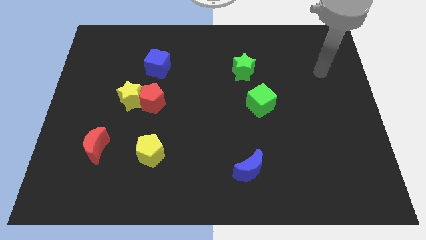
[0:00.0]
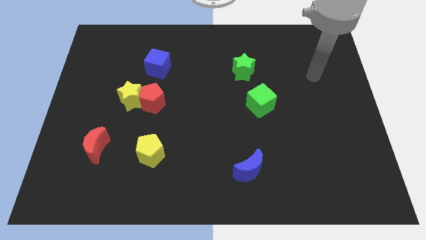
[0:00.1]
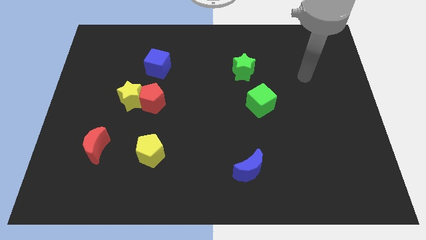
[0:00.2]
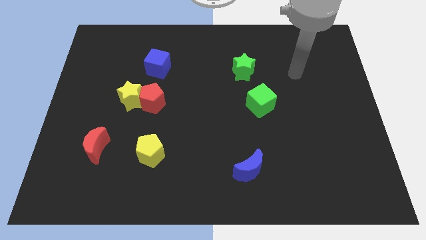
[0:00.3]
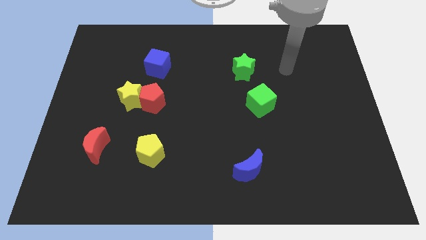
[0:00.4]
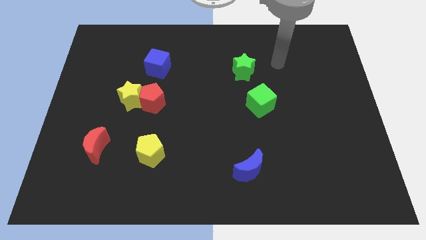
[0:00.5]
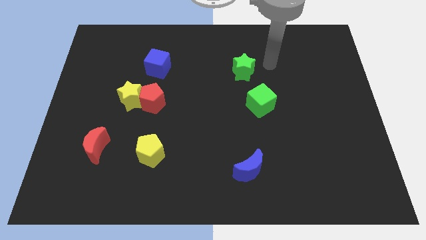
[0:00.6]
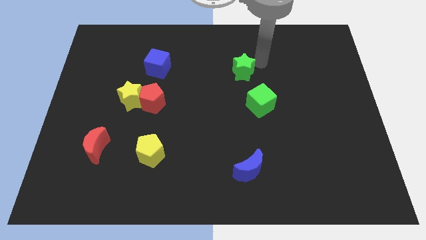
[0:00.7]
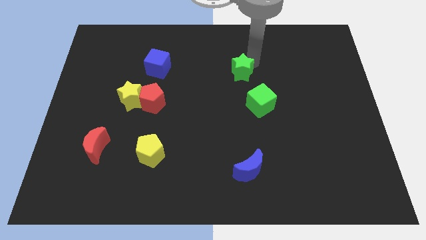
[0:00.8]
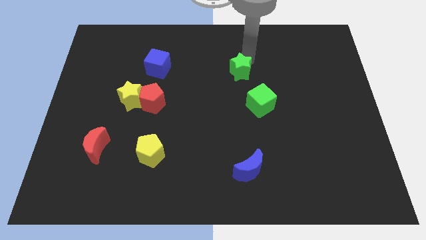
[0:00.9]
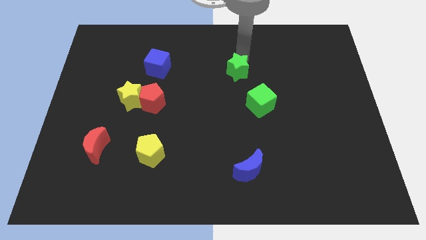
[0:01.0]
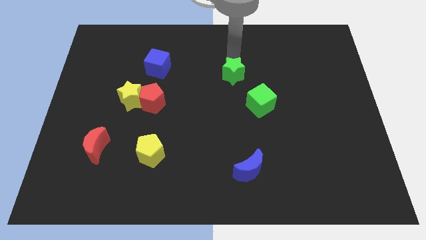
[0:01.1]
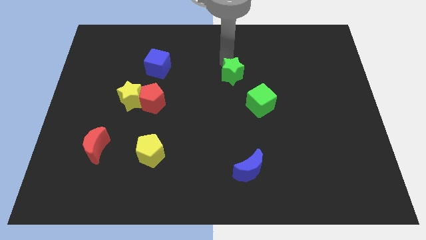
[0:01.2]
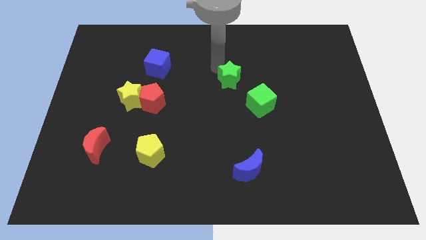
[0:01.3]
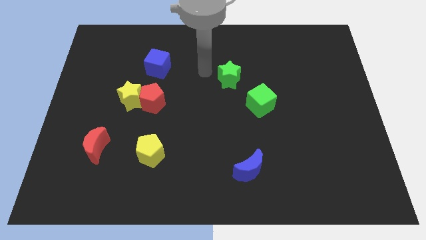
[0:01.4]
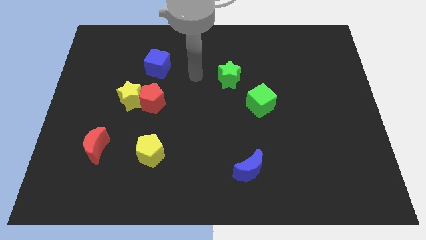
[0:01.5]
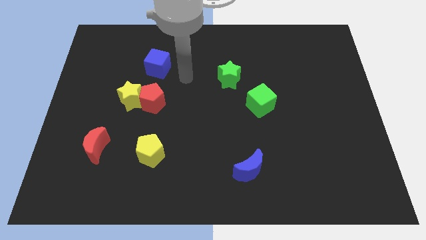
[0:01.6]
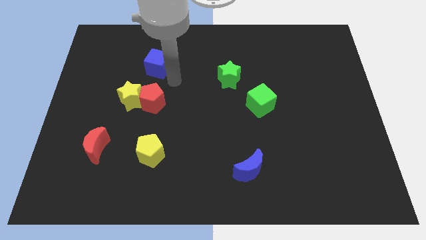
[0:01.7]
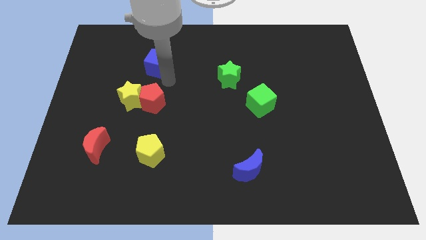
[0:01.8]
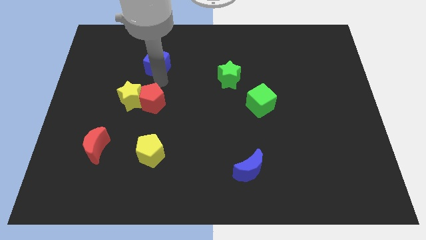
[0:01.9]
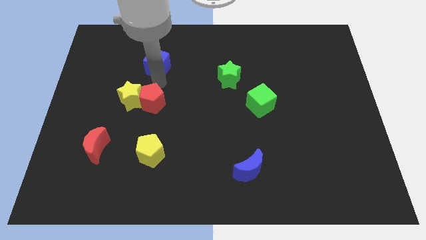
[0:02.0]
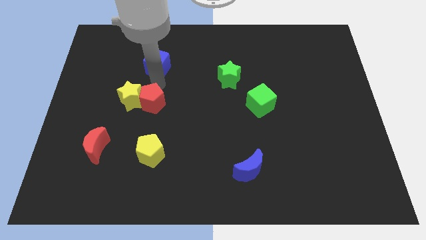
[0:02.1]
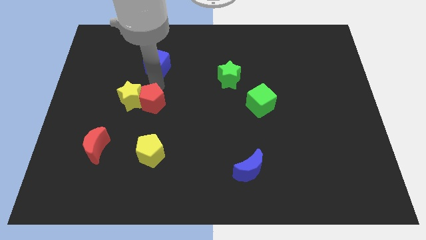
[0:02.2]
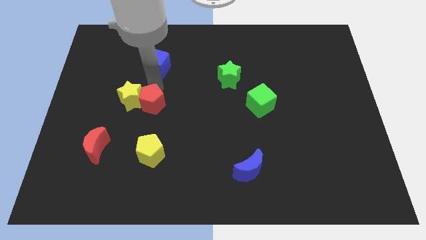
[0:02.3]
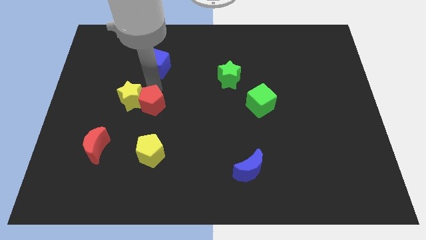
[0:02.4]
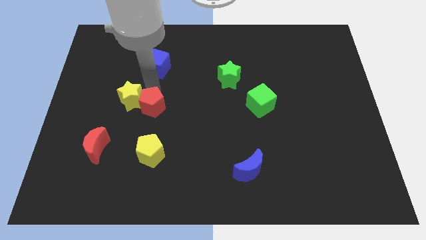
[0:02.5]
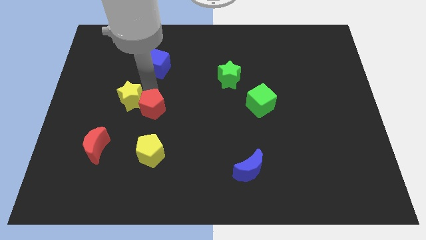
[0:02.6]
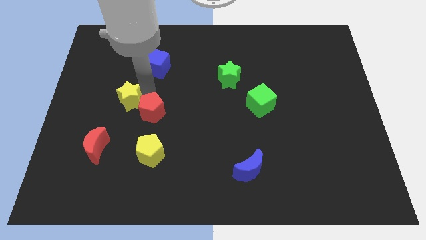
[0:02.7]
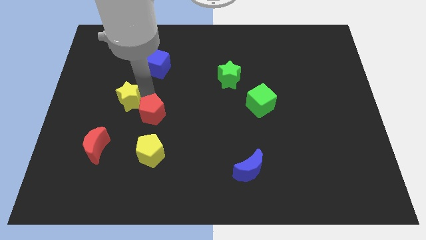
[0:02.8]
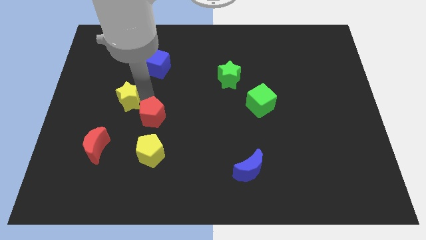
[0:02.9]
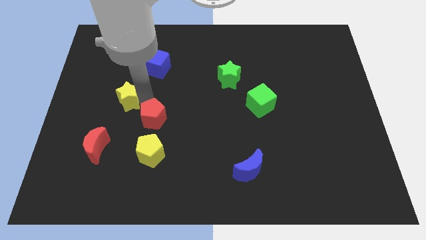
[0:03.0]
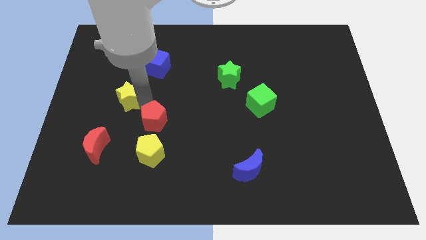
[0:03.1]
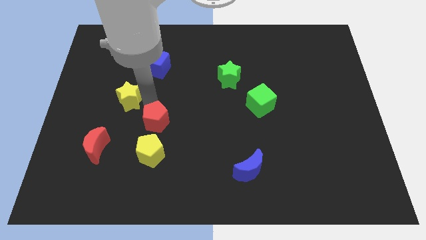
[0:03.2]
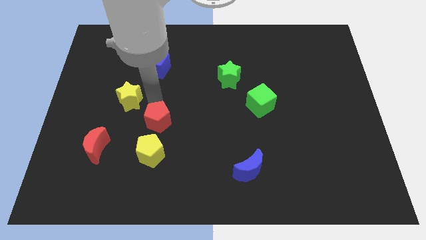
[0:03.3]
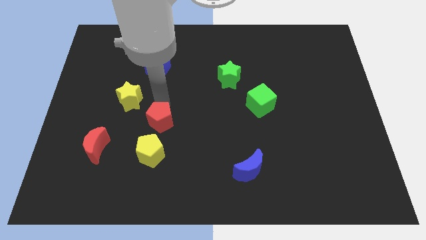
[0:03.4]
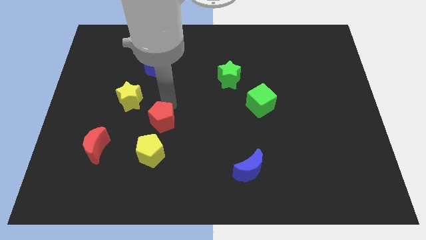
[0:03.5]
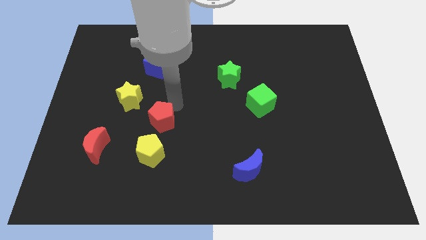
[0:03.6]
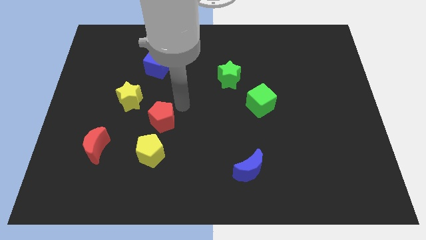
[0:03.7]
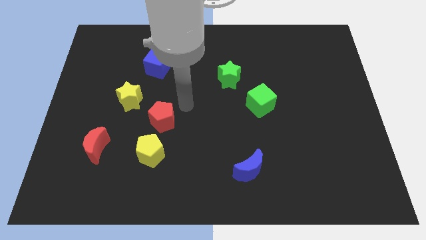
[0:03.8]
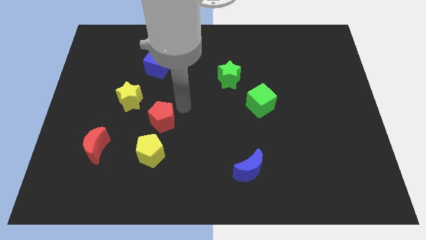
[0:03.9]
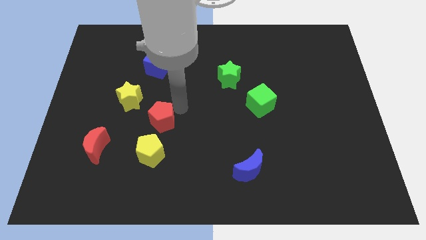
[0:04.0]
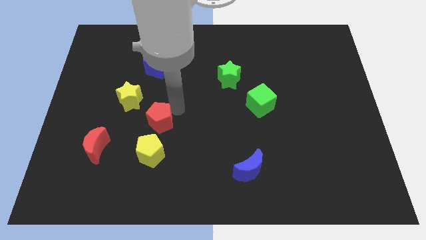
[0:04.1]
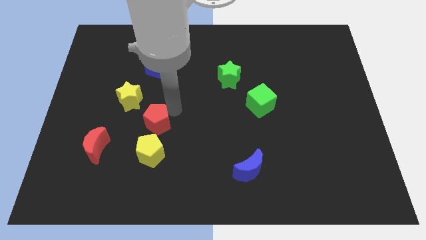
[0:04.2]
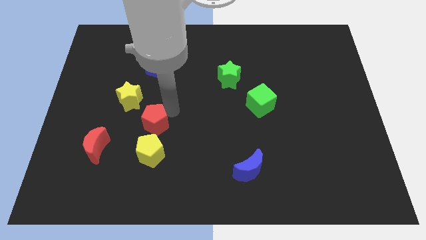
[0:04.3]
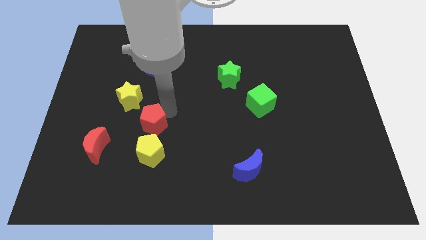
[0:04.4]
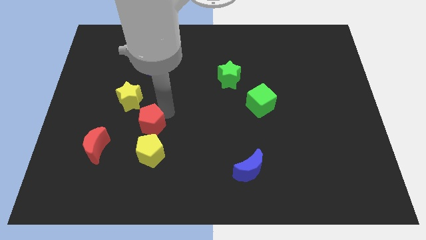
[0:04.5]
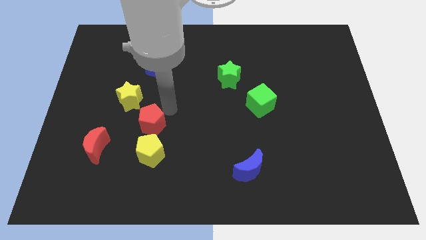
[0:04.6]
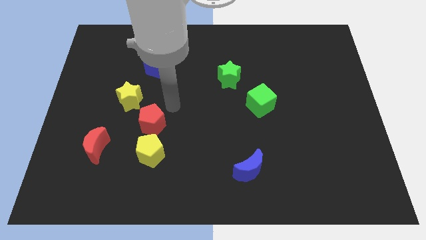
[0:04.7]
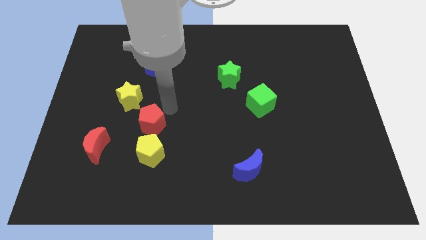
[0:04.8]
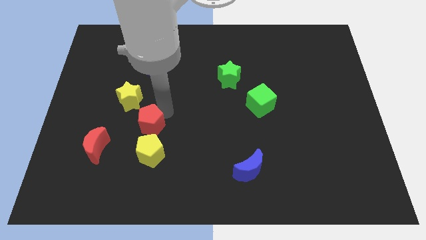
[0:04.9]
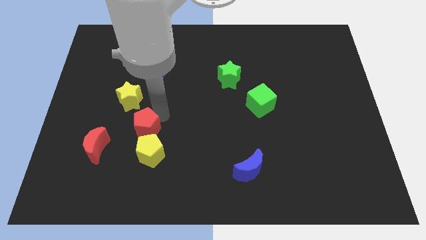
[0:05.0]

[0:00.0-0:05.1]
slightly push the red pentagon downwards

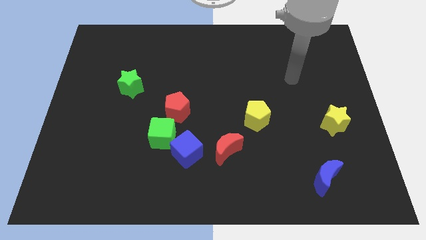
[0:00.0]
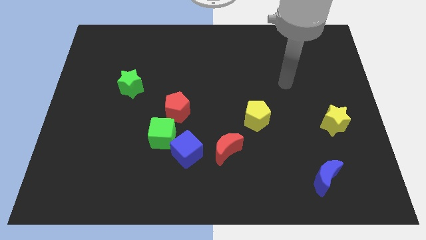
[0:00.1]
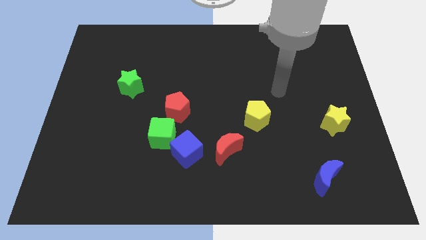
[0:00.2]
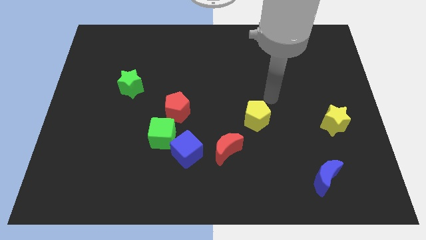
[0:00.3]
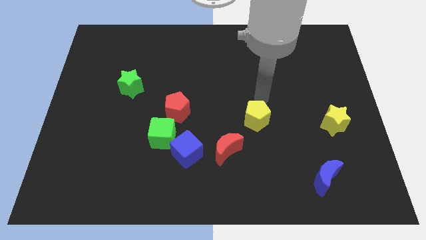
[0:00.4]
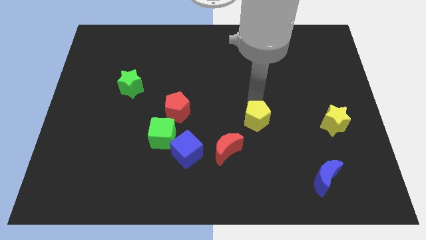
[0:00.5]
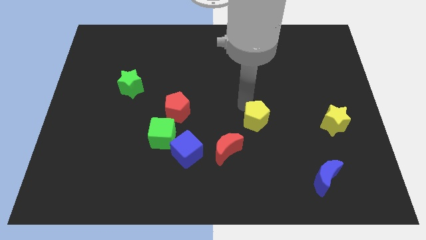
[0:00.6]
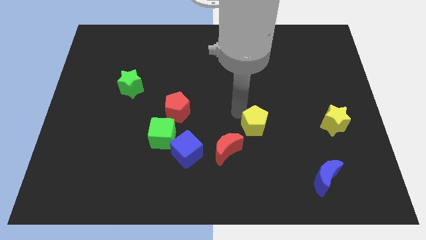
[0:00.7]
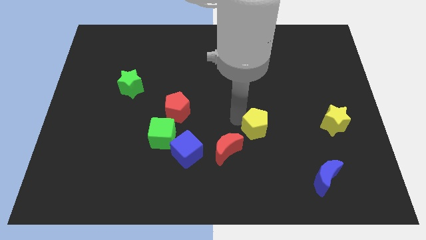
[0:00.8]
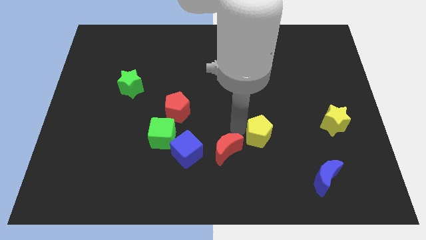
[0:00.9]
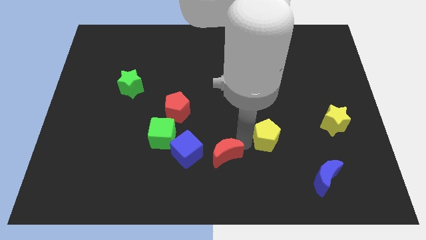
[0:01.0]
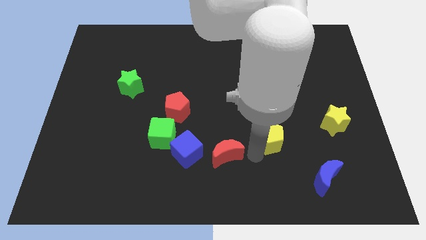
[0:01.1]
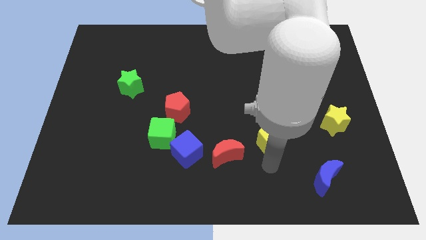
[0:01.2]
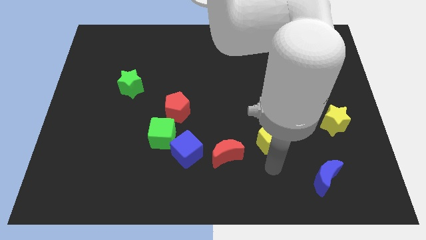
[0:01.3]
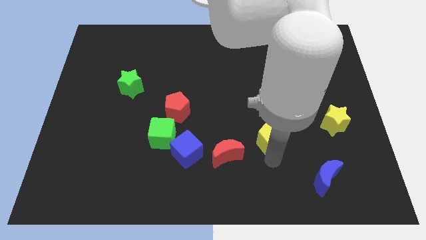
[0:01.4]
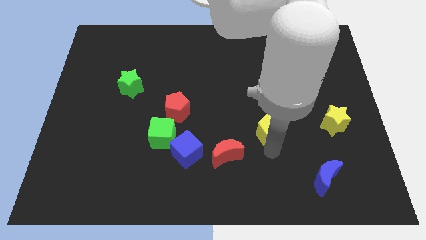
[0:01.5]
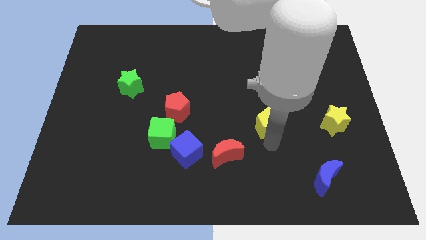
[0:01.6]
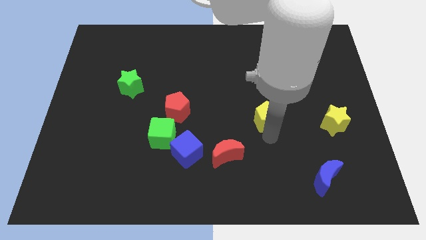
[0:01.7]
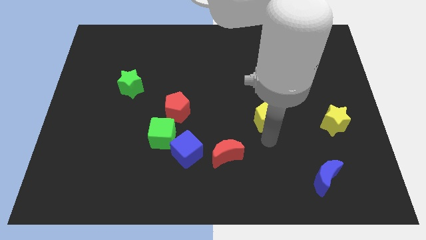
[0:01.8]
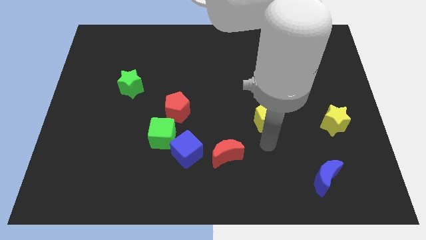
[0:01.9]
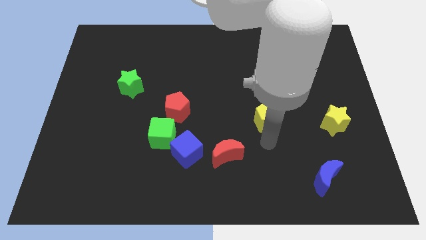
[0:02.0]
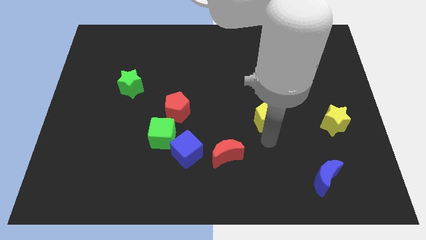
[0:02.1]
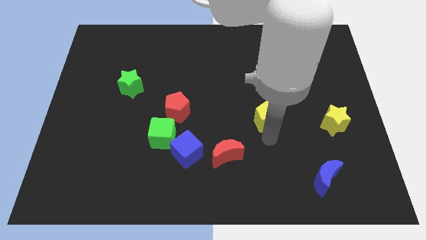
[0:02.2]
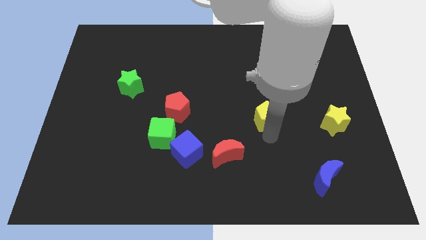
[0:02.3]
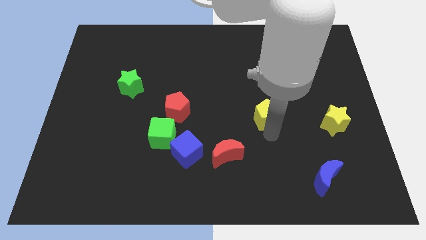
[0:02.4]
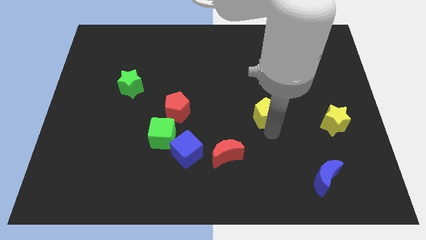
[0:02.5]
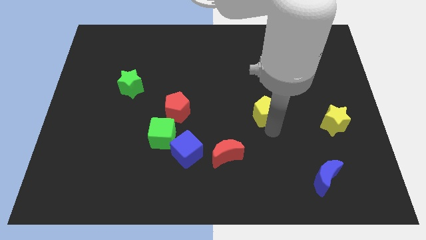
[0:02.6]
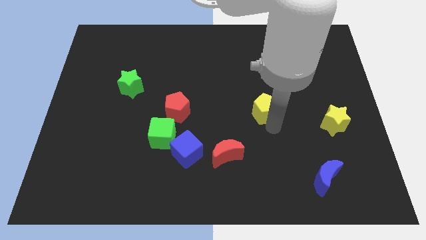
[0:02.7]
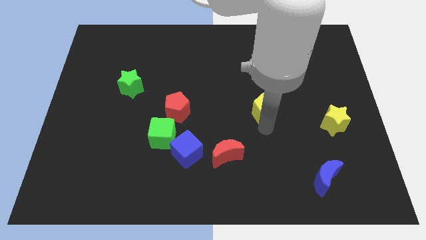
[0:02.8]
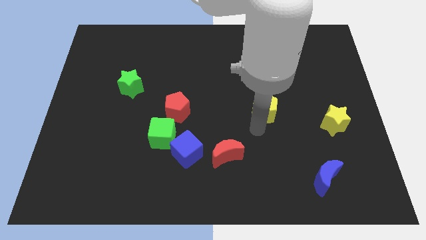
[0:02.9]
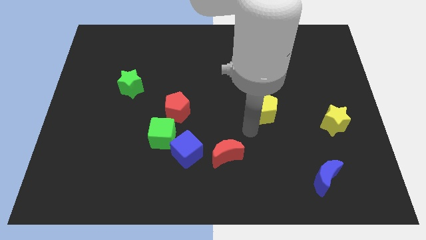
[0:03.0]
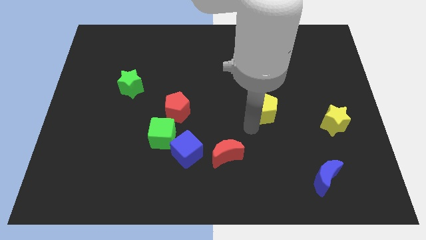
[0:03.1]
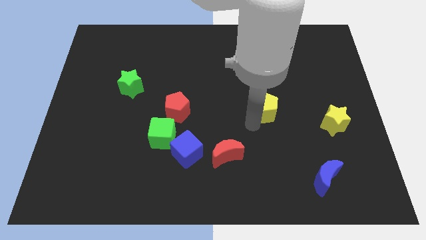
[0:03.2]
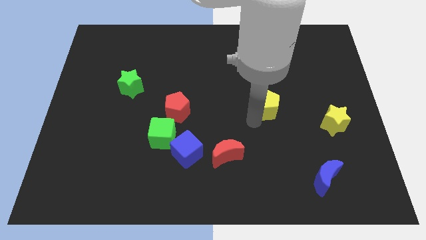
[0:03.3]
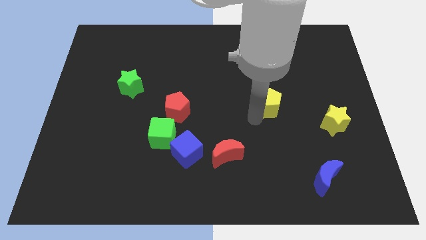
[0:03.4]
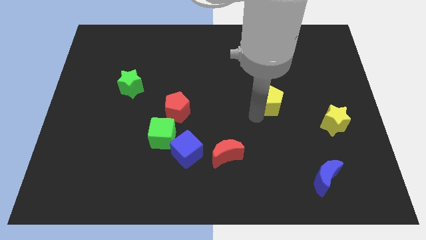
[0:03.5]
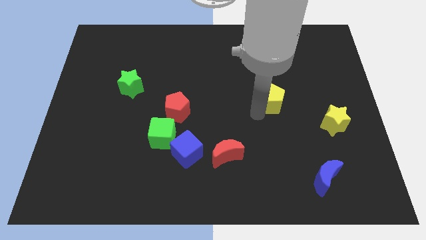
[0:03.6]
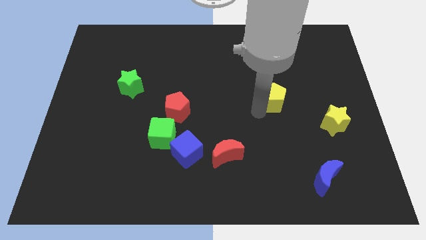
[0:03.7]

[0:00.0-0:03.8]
slide the yellow pentagon upwards and right slightly
